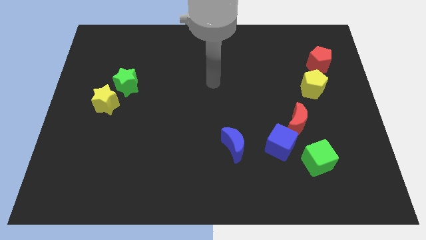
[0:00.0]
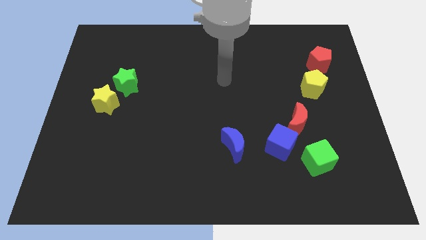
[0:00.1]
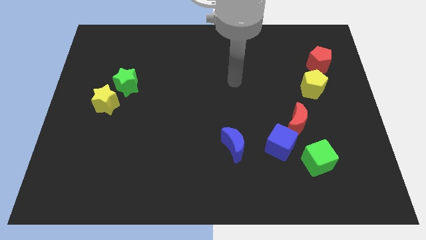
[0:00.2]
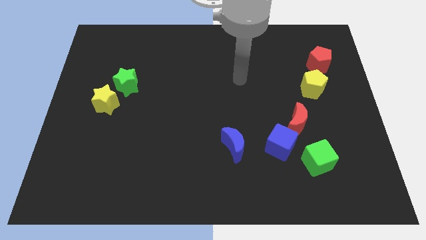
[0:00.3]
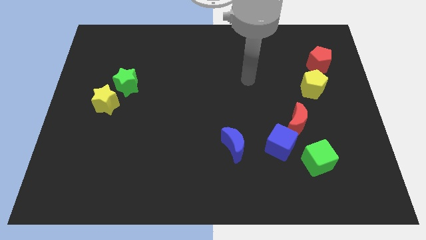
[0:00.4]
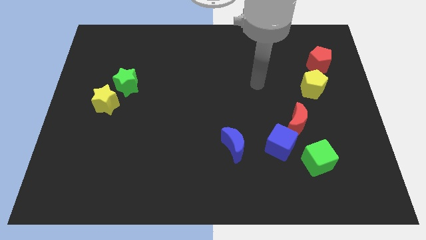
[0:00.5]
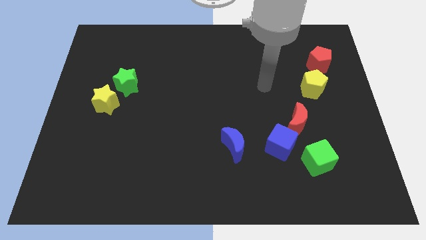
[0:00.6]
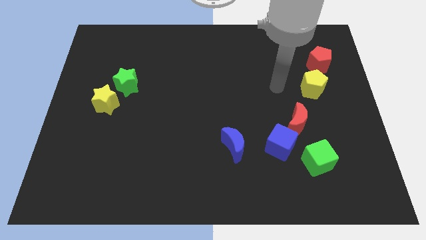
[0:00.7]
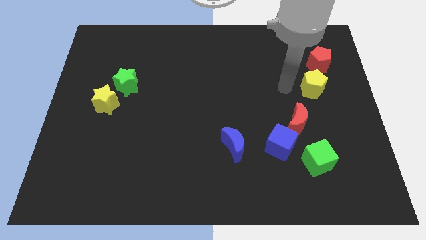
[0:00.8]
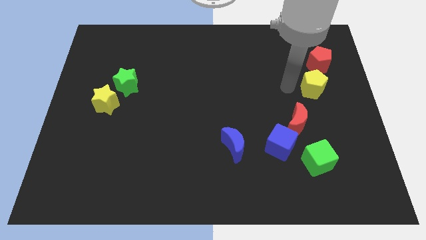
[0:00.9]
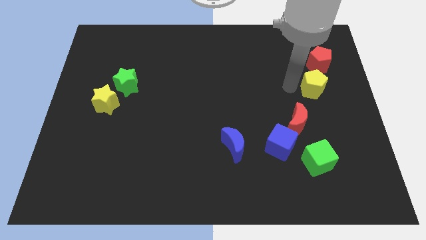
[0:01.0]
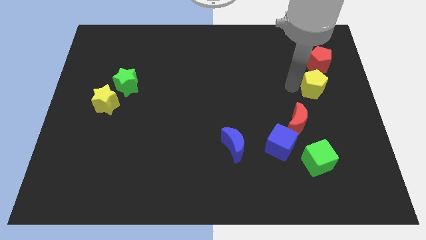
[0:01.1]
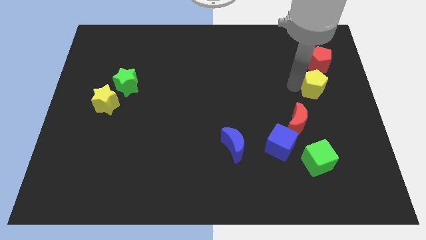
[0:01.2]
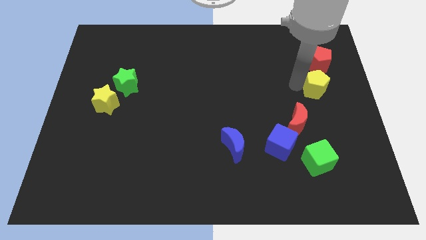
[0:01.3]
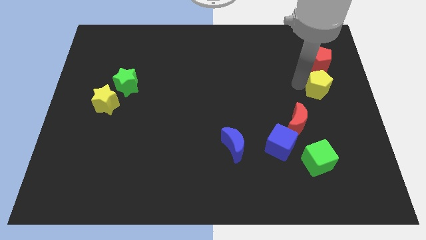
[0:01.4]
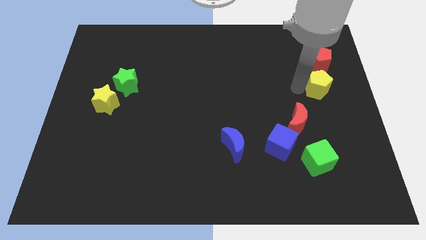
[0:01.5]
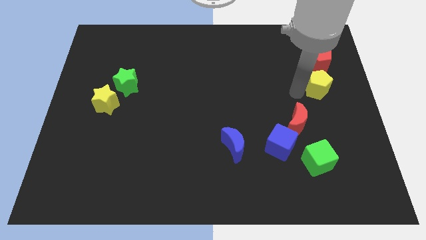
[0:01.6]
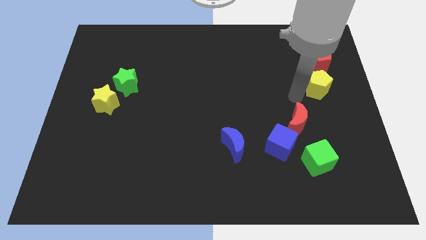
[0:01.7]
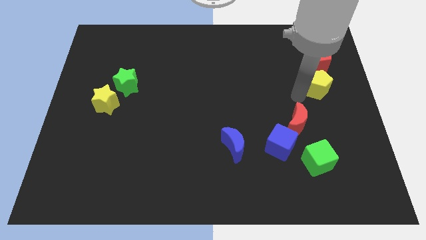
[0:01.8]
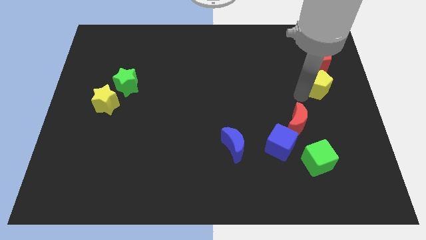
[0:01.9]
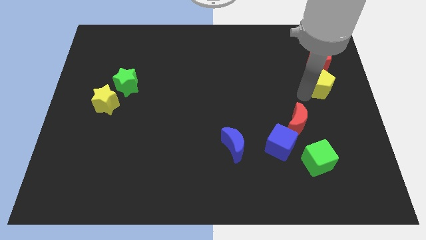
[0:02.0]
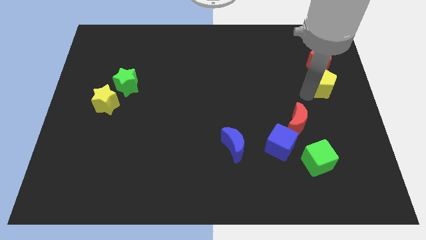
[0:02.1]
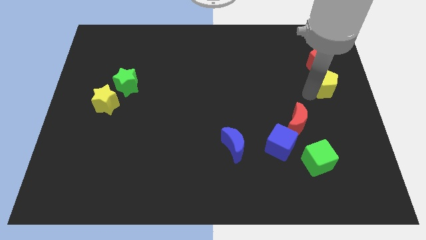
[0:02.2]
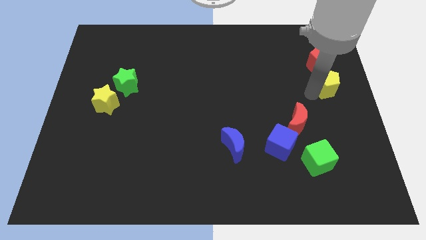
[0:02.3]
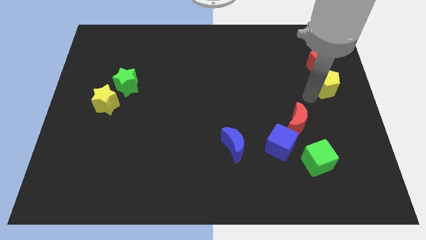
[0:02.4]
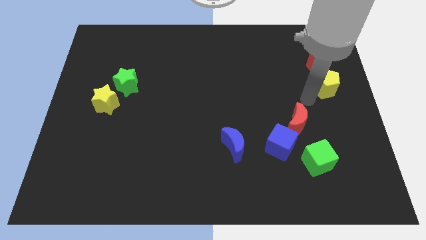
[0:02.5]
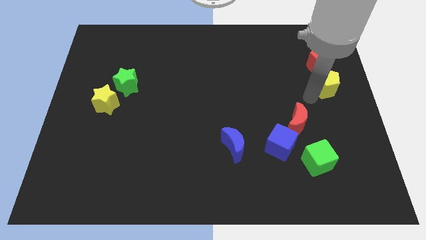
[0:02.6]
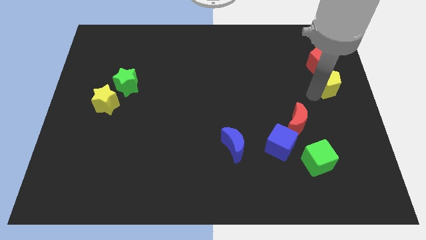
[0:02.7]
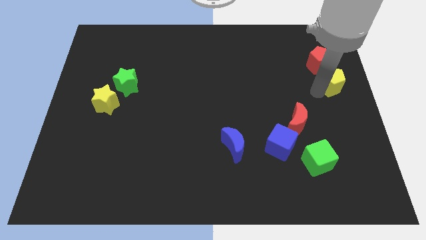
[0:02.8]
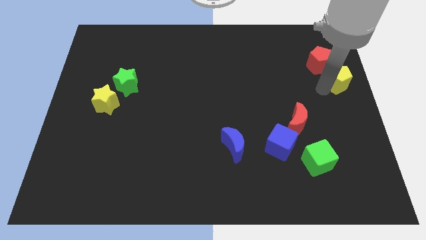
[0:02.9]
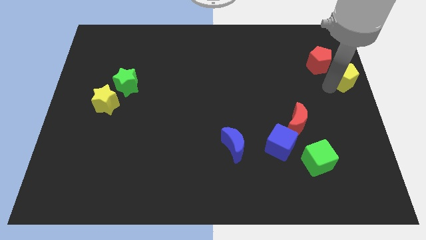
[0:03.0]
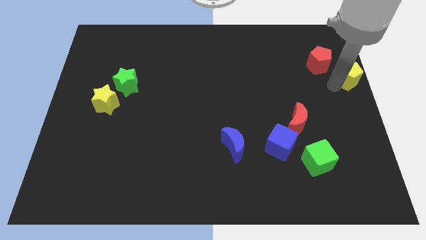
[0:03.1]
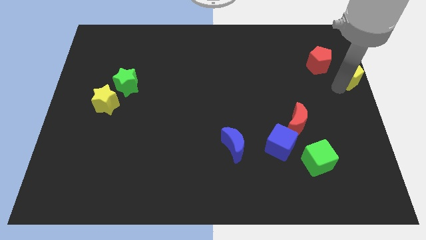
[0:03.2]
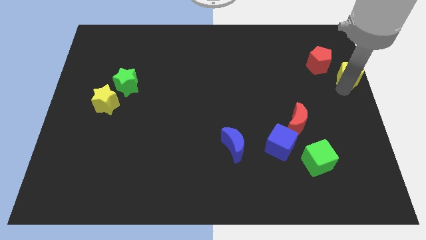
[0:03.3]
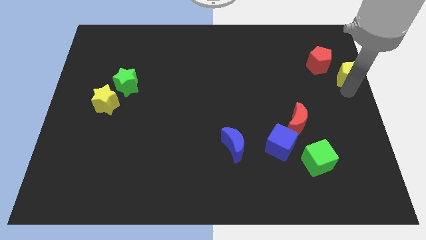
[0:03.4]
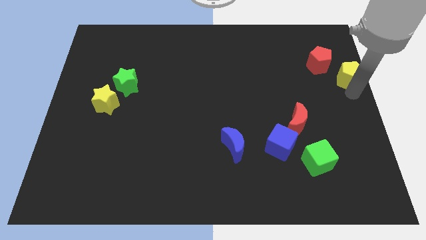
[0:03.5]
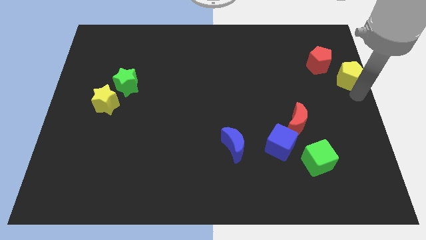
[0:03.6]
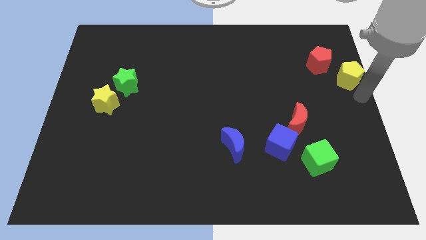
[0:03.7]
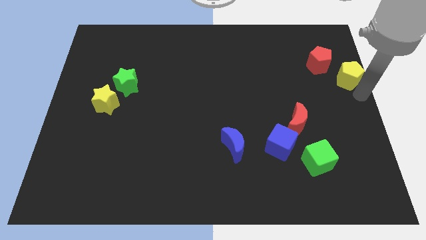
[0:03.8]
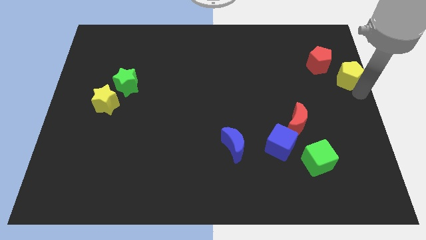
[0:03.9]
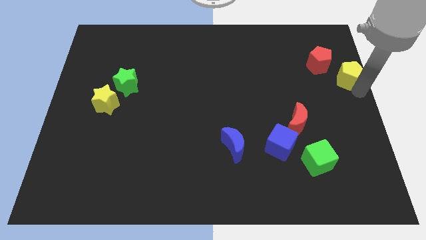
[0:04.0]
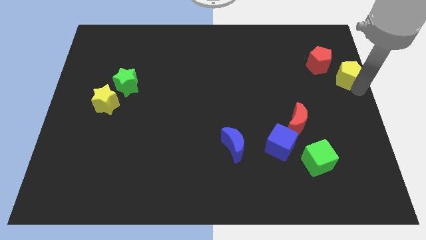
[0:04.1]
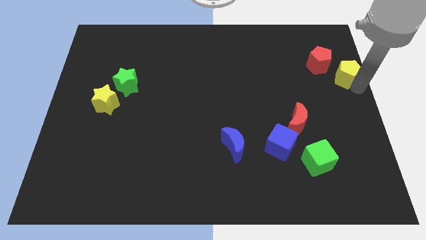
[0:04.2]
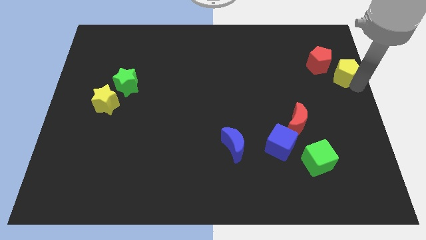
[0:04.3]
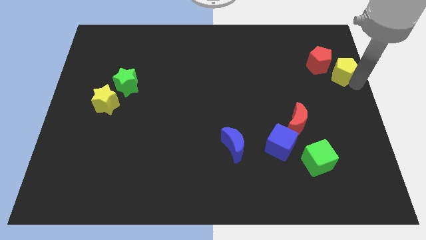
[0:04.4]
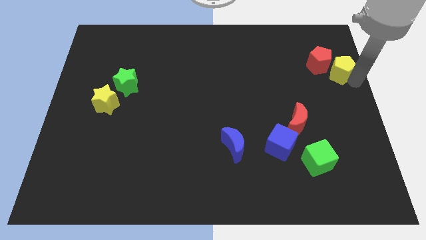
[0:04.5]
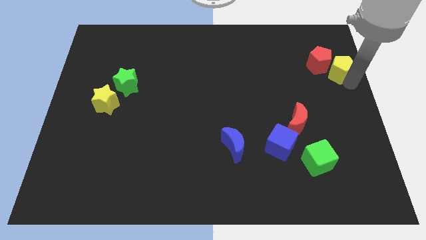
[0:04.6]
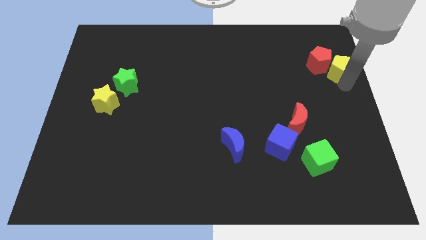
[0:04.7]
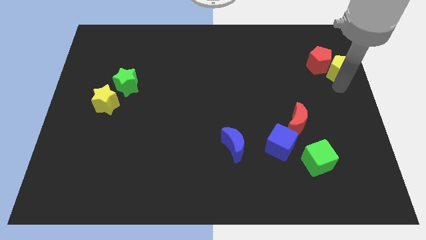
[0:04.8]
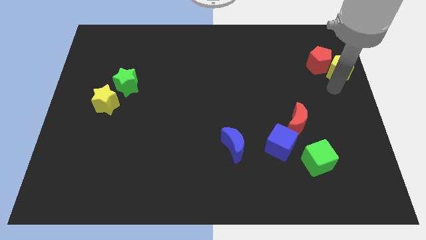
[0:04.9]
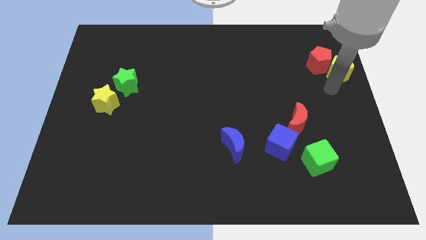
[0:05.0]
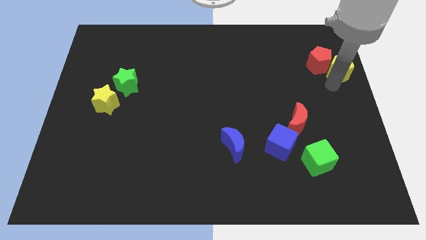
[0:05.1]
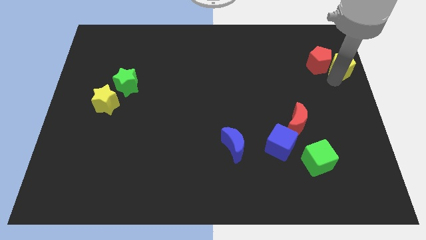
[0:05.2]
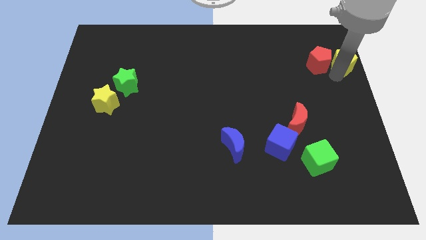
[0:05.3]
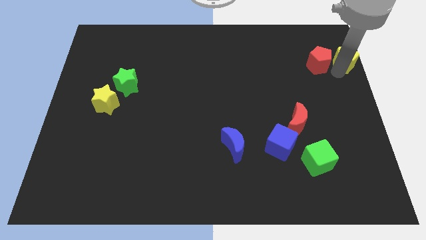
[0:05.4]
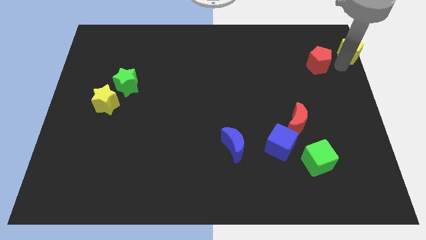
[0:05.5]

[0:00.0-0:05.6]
push the yellow pentagon to the upper right corner

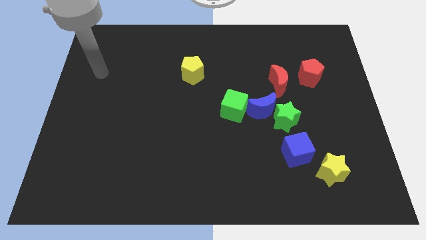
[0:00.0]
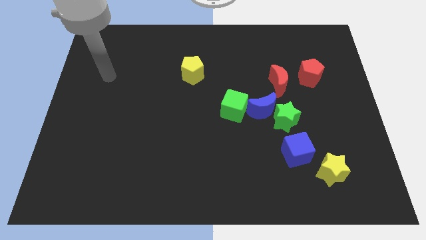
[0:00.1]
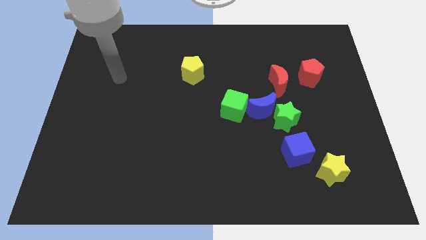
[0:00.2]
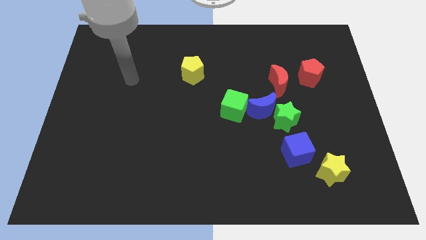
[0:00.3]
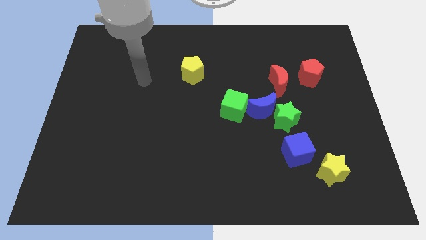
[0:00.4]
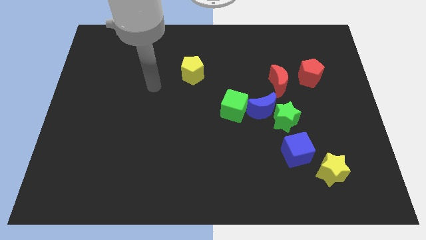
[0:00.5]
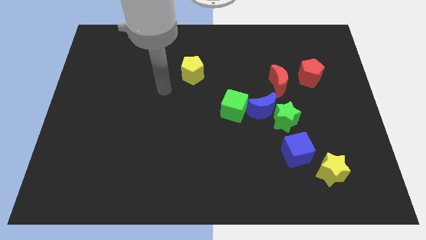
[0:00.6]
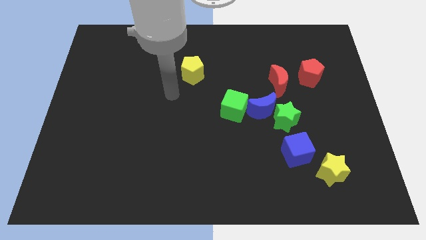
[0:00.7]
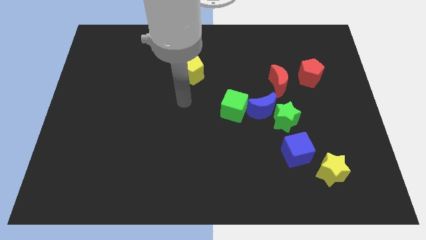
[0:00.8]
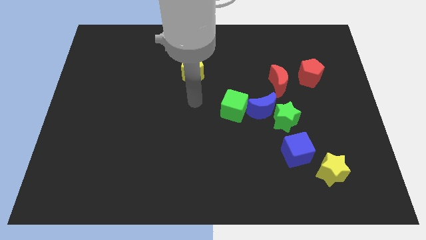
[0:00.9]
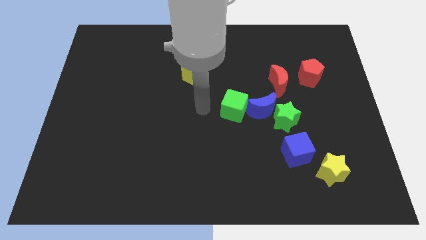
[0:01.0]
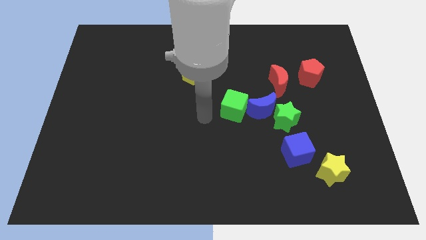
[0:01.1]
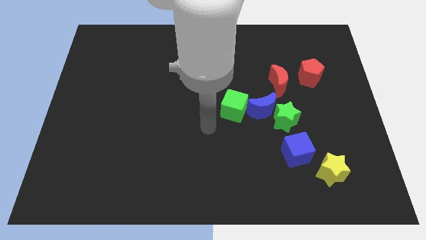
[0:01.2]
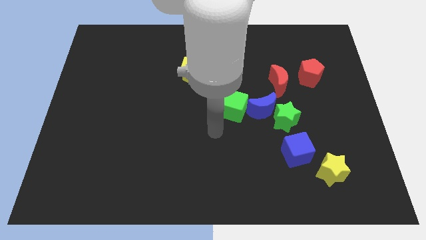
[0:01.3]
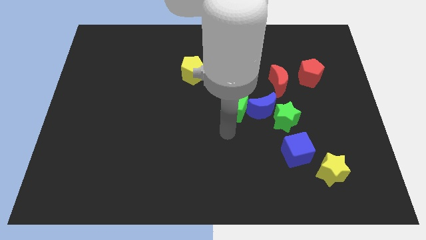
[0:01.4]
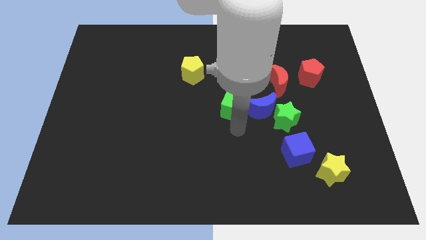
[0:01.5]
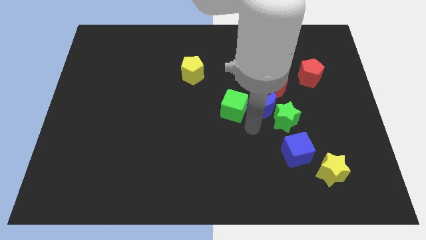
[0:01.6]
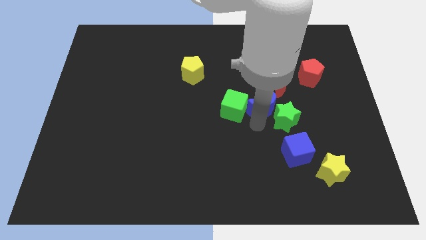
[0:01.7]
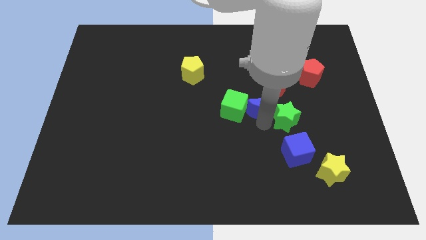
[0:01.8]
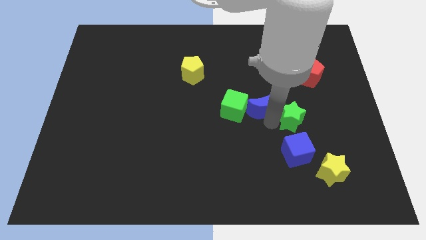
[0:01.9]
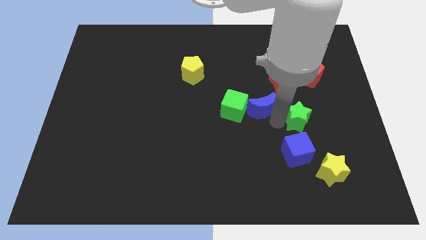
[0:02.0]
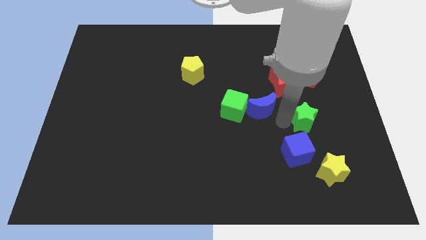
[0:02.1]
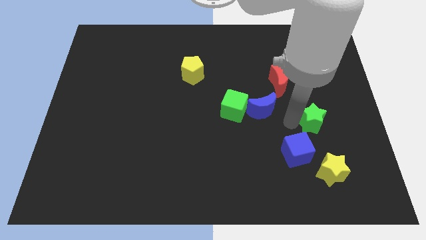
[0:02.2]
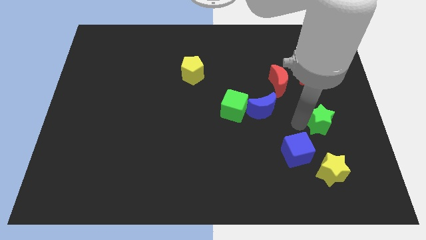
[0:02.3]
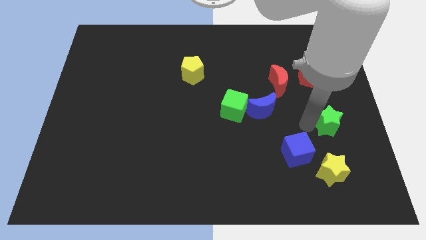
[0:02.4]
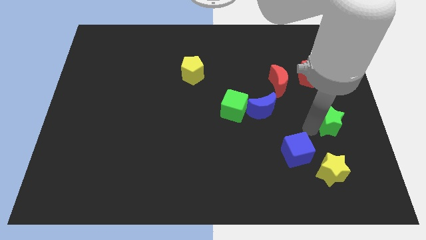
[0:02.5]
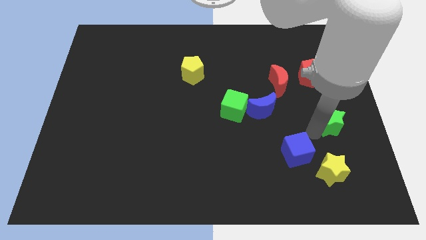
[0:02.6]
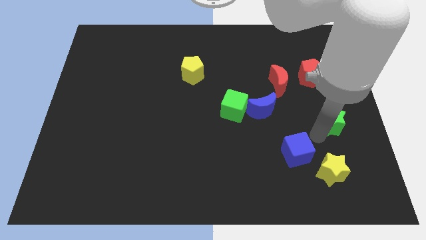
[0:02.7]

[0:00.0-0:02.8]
put the green star to the right side
